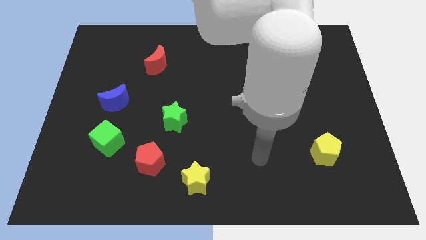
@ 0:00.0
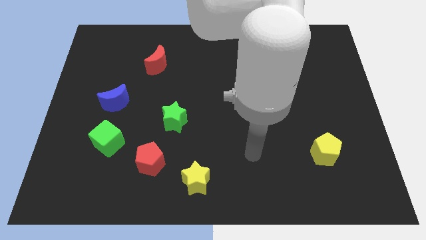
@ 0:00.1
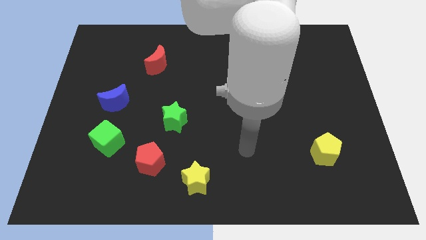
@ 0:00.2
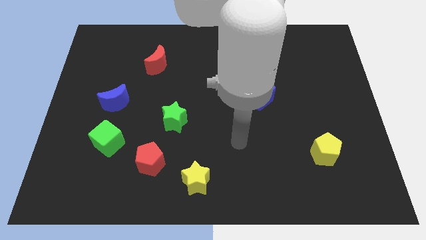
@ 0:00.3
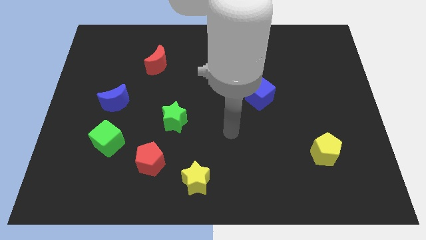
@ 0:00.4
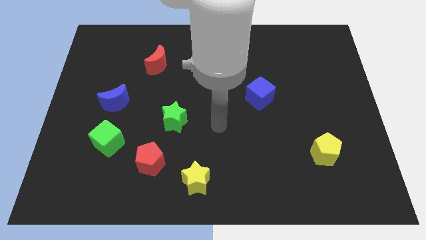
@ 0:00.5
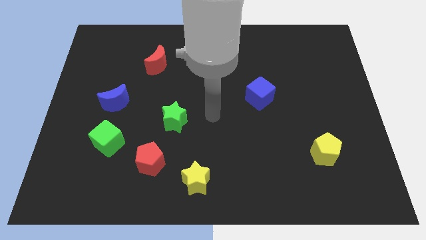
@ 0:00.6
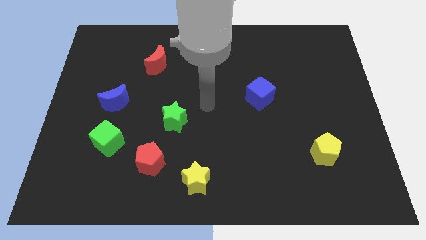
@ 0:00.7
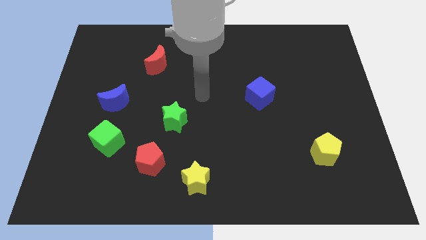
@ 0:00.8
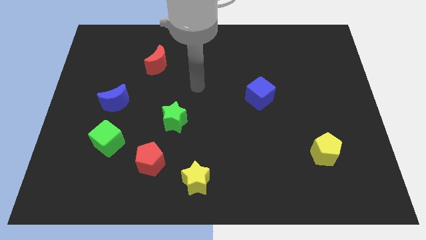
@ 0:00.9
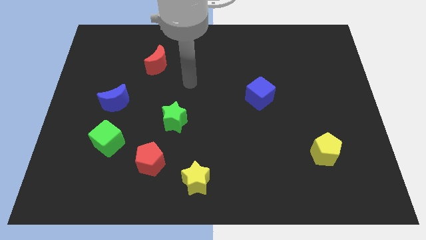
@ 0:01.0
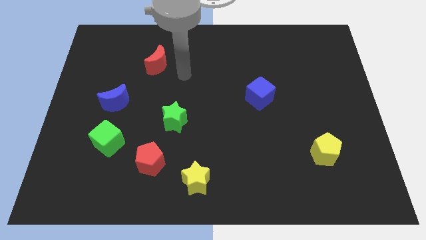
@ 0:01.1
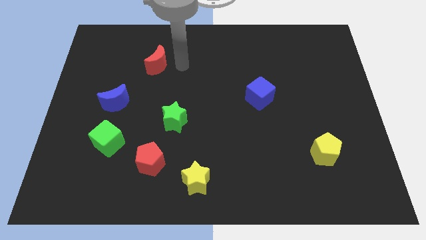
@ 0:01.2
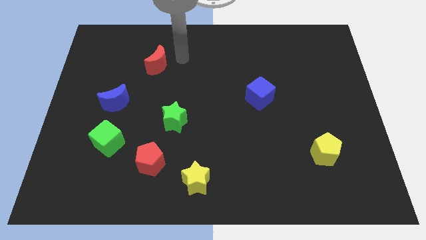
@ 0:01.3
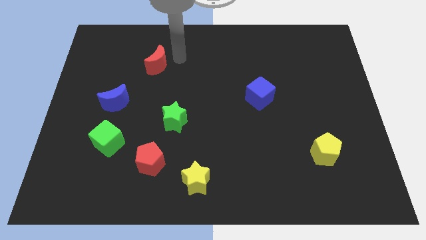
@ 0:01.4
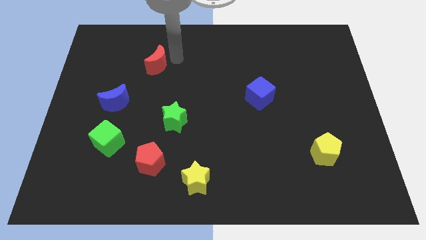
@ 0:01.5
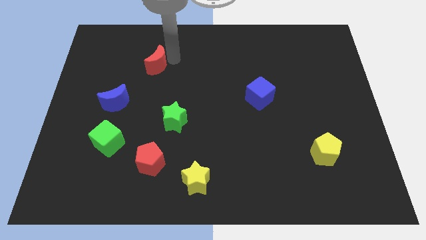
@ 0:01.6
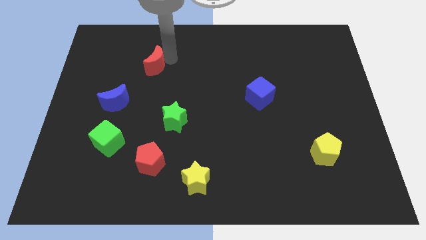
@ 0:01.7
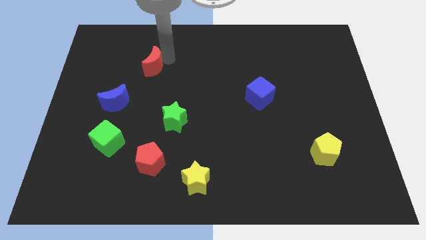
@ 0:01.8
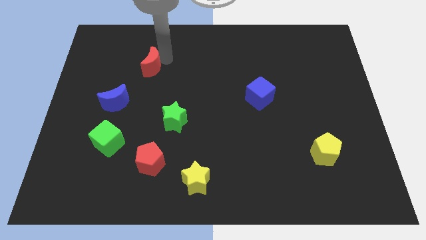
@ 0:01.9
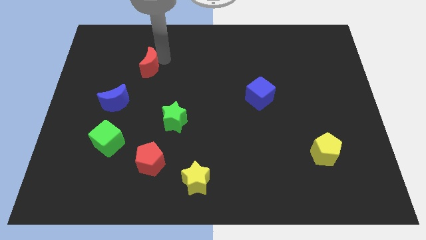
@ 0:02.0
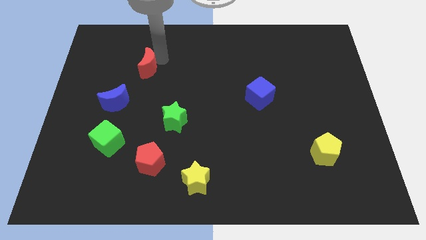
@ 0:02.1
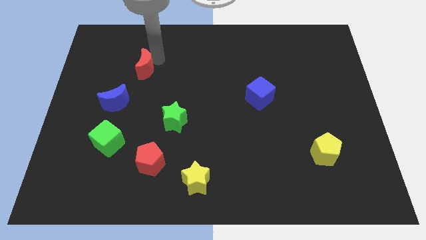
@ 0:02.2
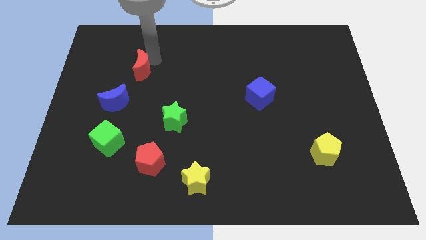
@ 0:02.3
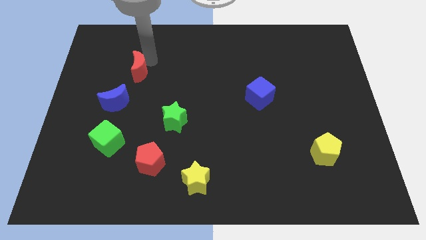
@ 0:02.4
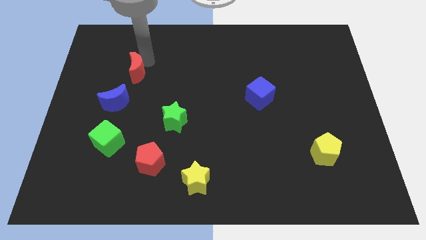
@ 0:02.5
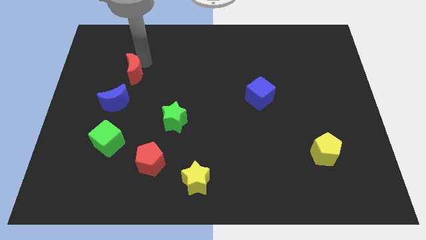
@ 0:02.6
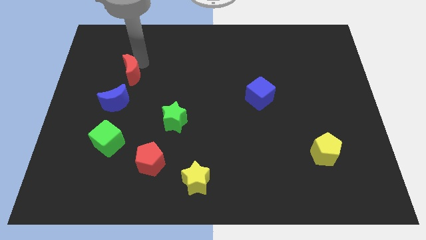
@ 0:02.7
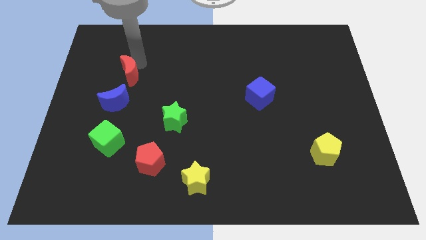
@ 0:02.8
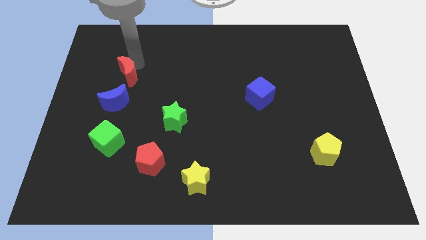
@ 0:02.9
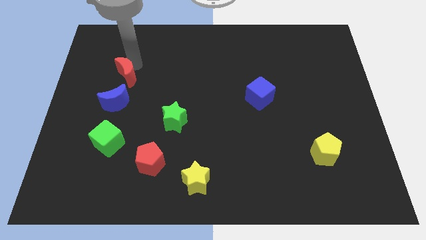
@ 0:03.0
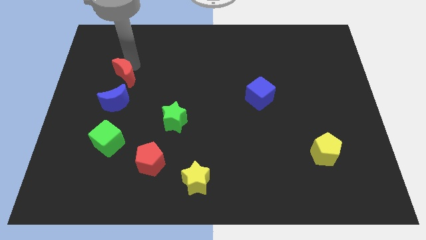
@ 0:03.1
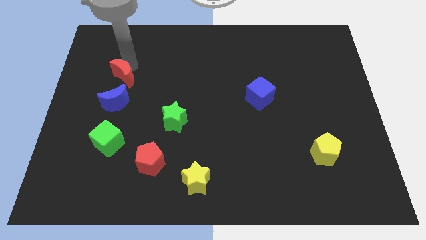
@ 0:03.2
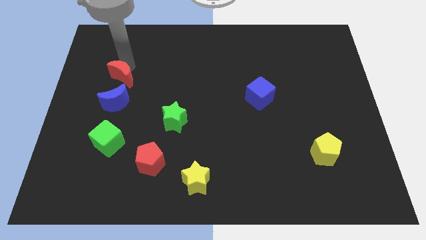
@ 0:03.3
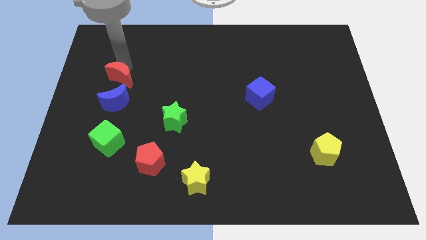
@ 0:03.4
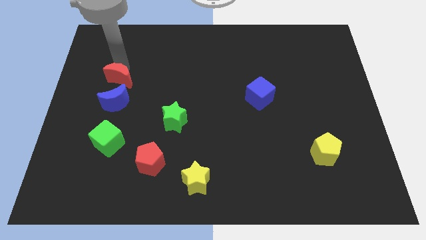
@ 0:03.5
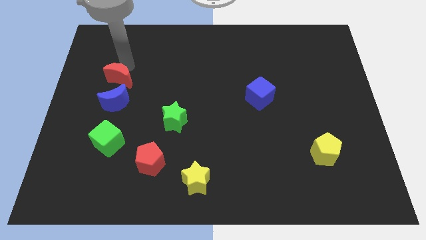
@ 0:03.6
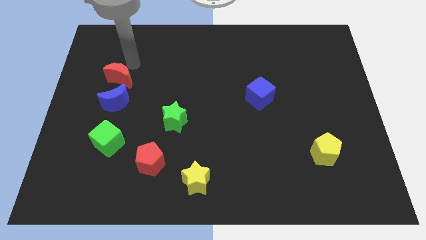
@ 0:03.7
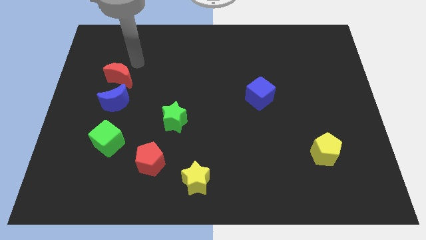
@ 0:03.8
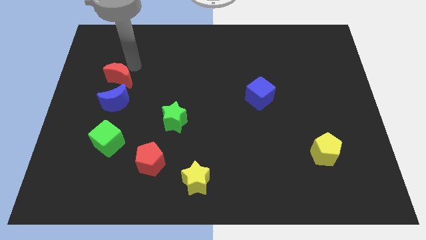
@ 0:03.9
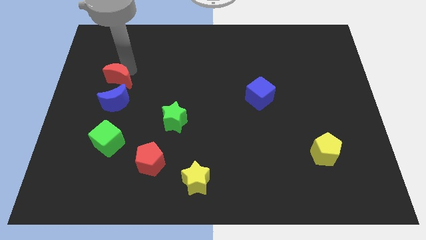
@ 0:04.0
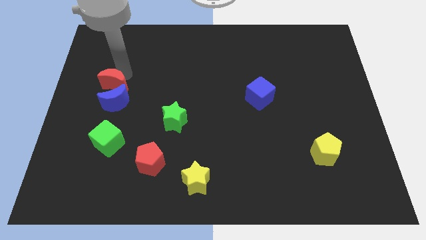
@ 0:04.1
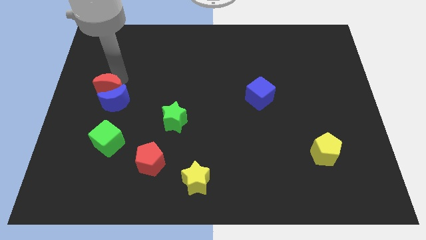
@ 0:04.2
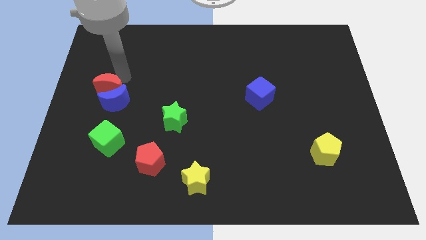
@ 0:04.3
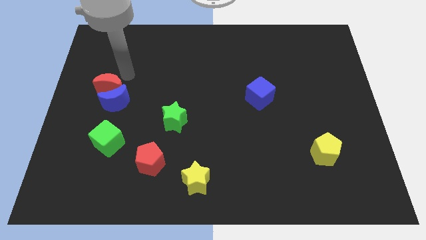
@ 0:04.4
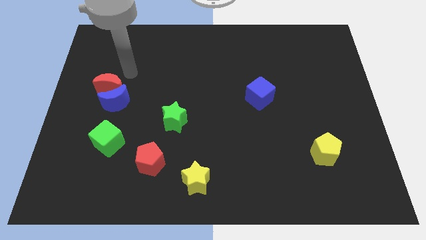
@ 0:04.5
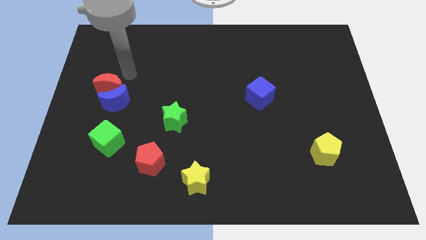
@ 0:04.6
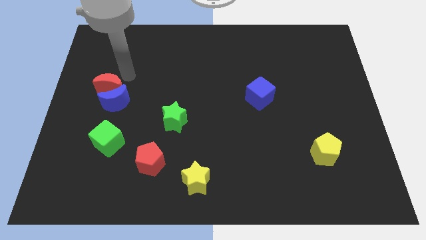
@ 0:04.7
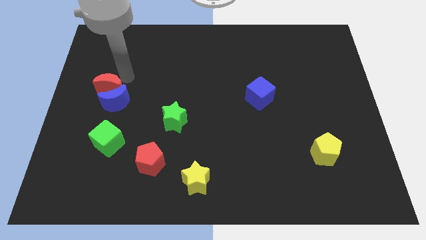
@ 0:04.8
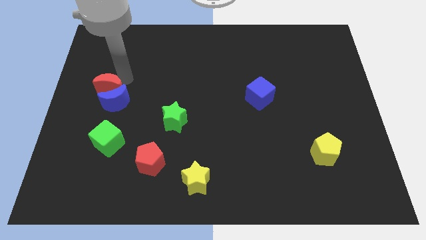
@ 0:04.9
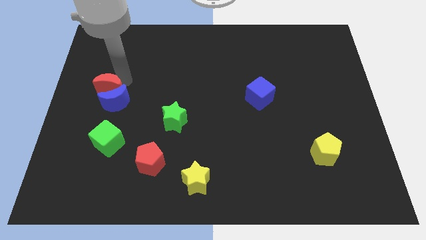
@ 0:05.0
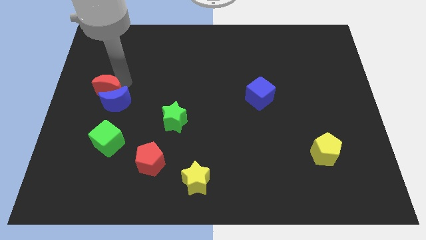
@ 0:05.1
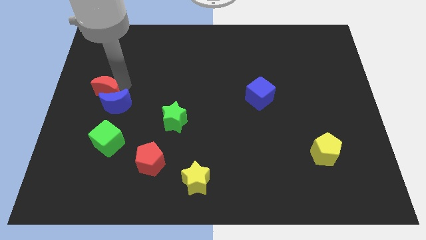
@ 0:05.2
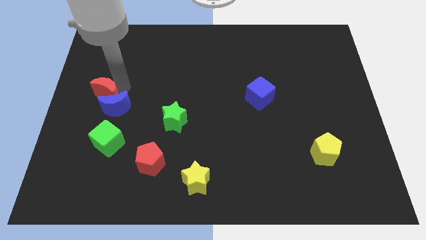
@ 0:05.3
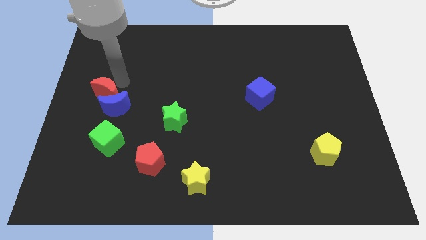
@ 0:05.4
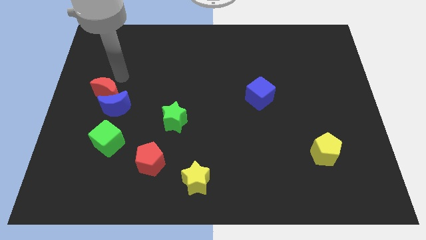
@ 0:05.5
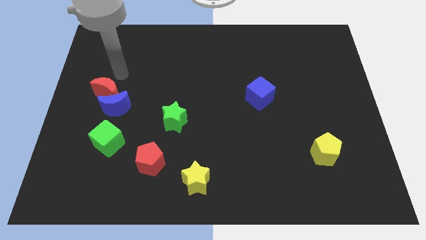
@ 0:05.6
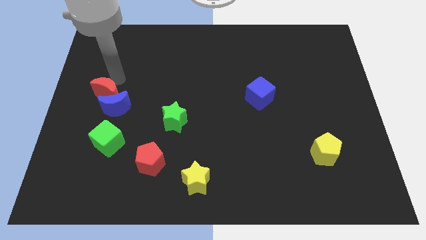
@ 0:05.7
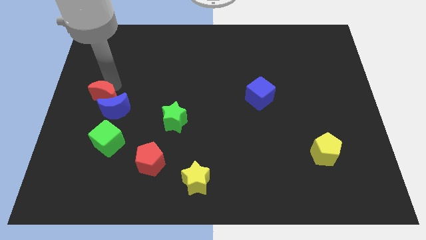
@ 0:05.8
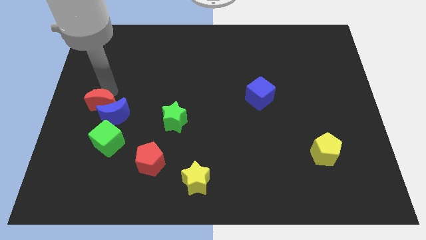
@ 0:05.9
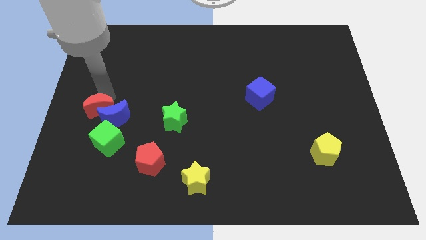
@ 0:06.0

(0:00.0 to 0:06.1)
move the red moon to the top left side of the green cube

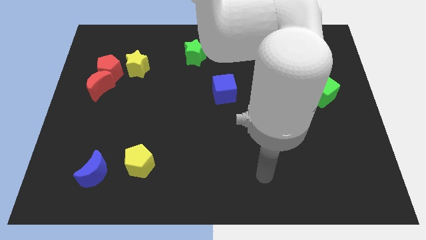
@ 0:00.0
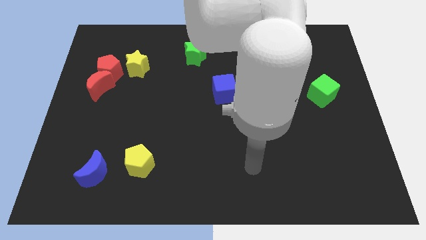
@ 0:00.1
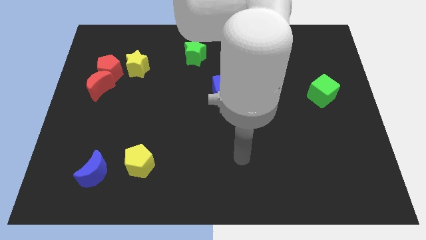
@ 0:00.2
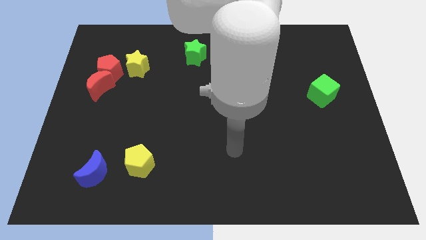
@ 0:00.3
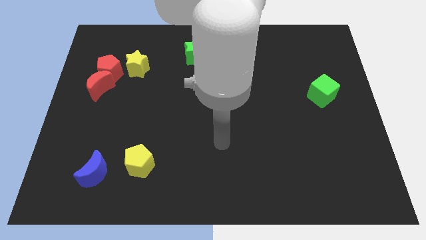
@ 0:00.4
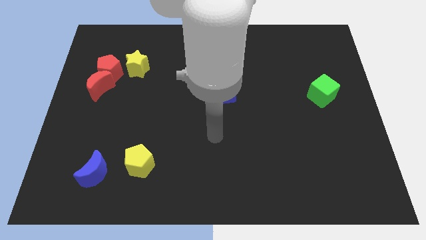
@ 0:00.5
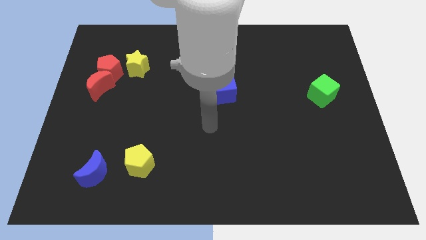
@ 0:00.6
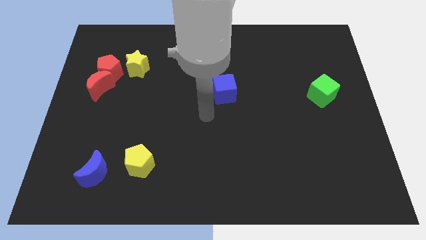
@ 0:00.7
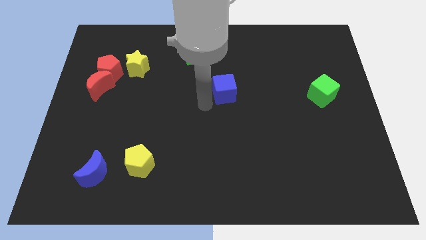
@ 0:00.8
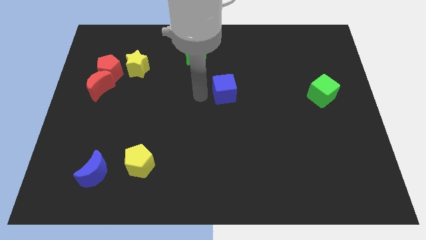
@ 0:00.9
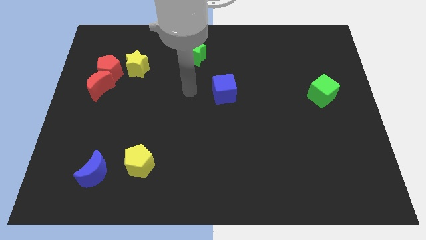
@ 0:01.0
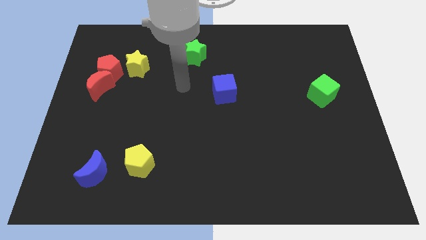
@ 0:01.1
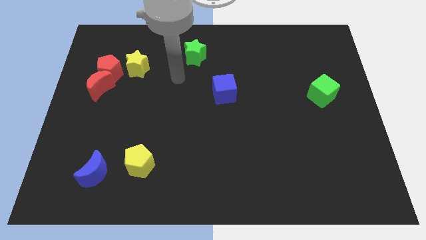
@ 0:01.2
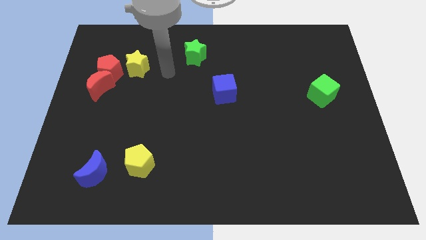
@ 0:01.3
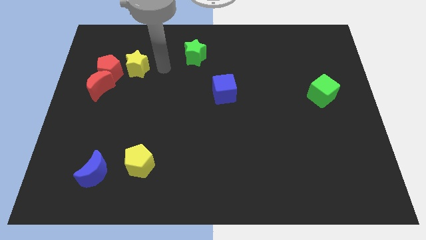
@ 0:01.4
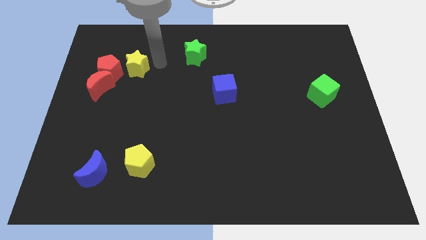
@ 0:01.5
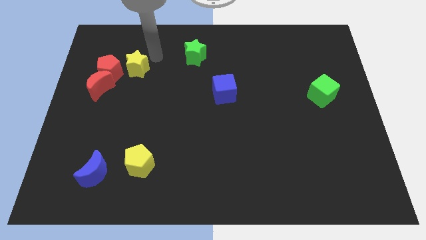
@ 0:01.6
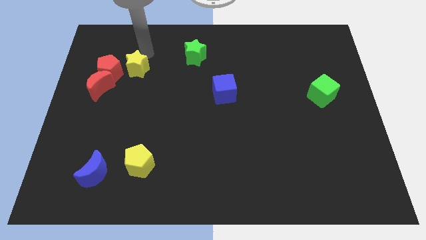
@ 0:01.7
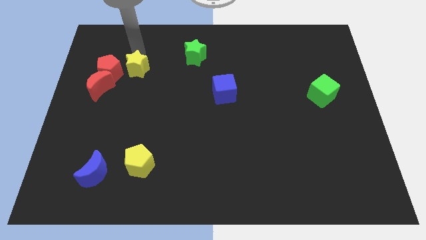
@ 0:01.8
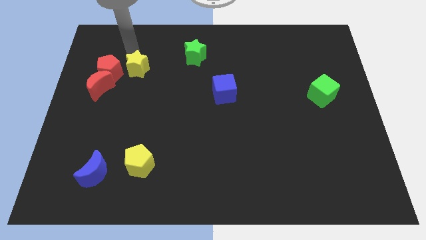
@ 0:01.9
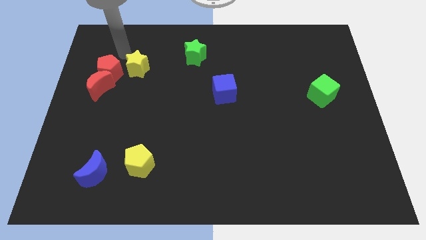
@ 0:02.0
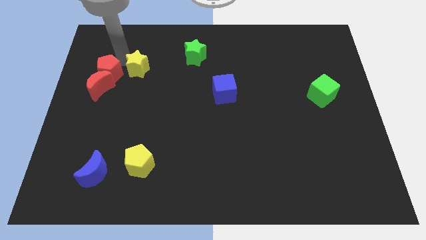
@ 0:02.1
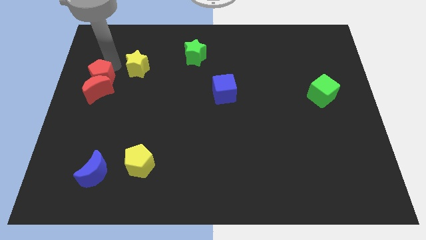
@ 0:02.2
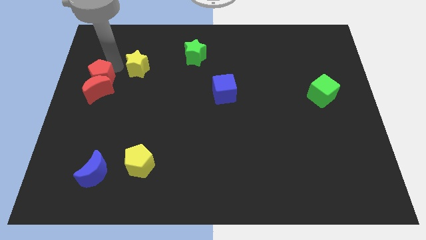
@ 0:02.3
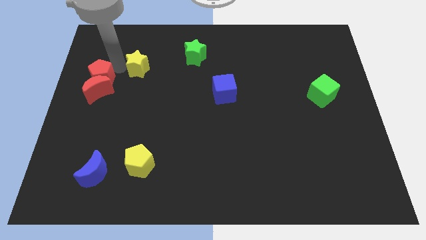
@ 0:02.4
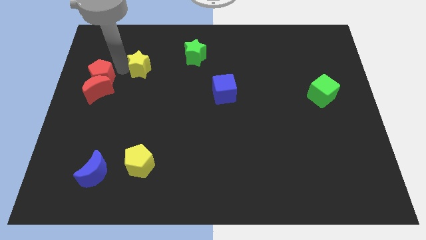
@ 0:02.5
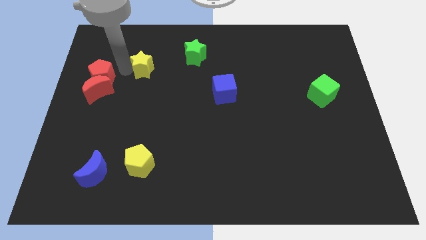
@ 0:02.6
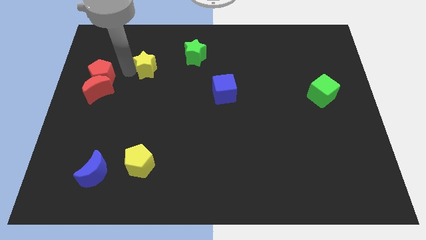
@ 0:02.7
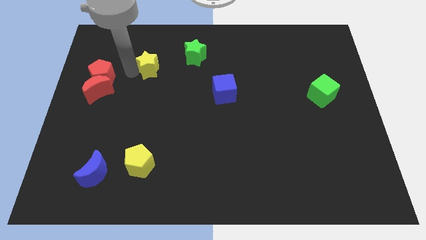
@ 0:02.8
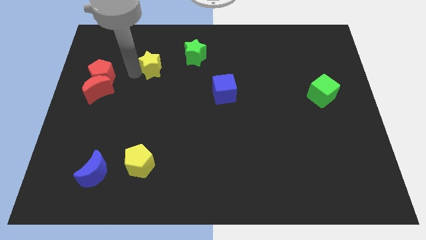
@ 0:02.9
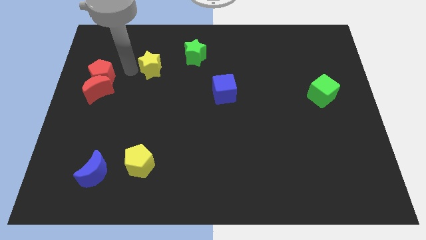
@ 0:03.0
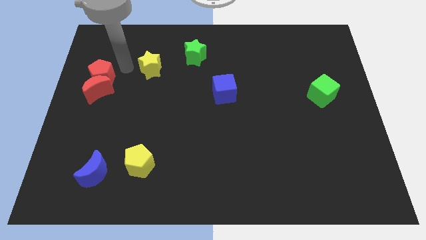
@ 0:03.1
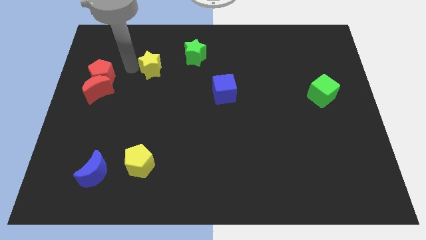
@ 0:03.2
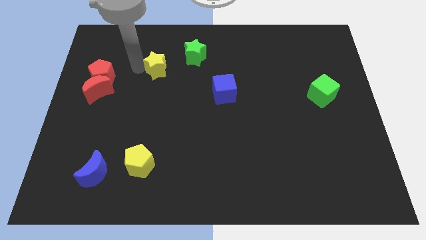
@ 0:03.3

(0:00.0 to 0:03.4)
put the yellow star to the bottom left side of the green star
